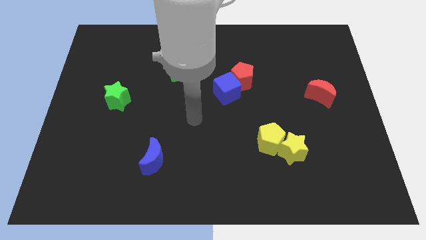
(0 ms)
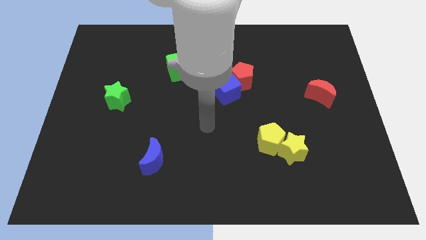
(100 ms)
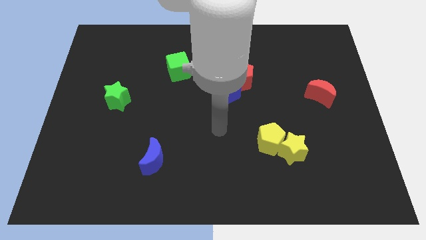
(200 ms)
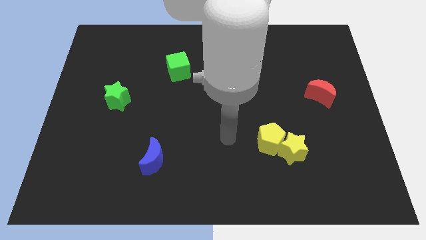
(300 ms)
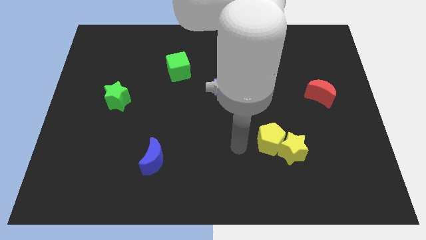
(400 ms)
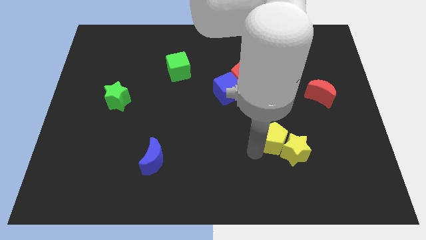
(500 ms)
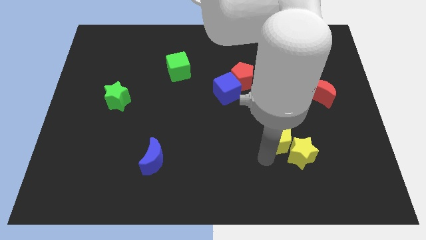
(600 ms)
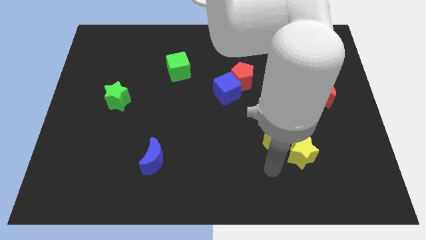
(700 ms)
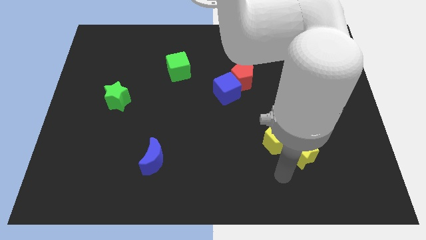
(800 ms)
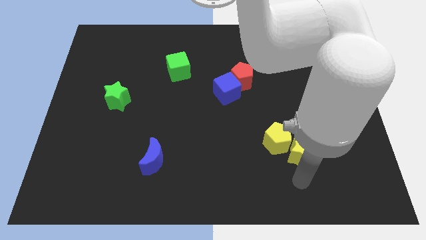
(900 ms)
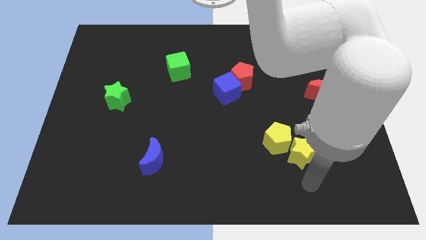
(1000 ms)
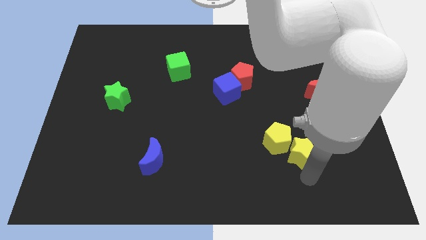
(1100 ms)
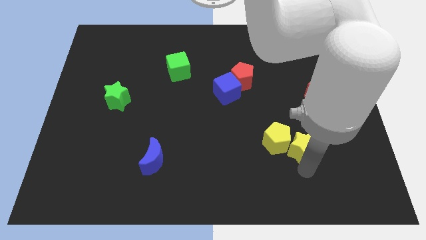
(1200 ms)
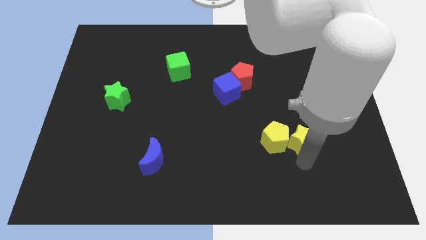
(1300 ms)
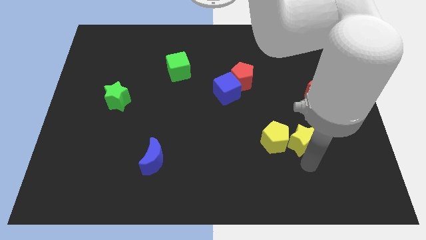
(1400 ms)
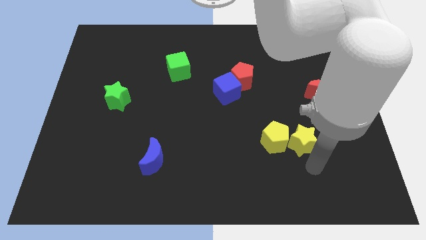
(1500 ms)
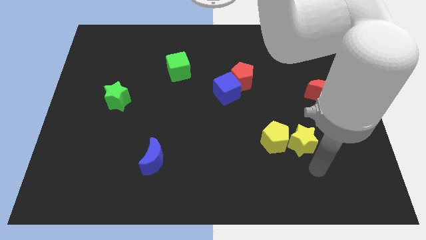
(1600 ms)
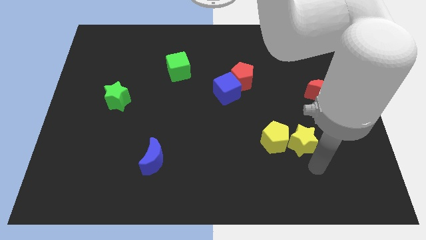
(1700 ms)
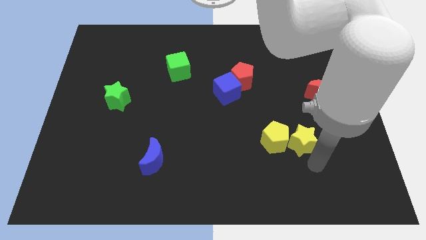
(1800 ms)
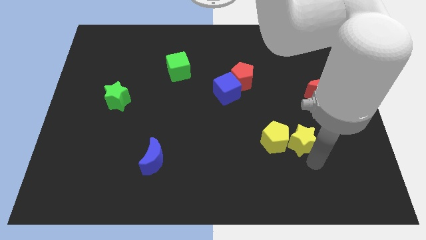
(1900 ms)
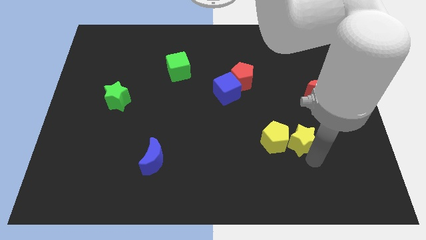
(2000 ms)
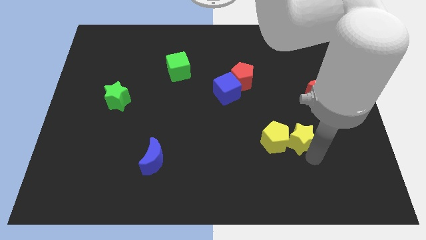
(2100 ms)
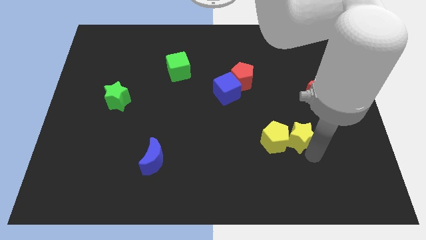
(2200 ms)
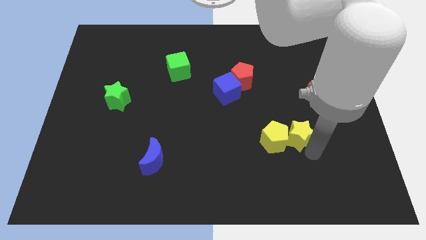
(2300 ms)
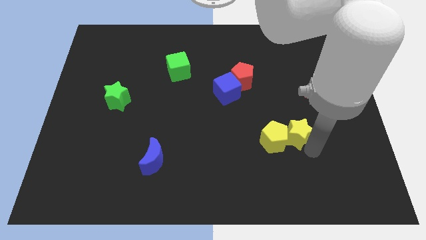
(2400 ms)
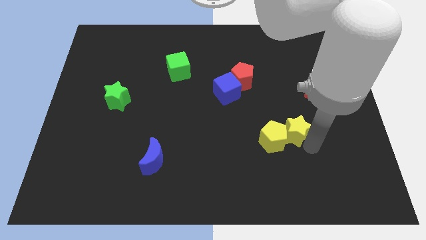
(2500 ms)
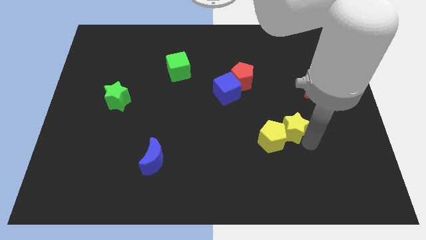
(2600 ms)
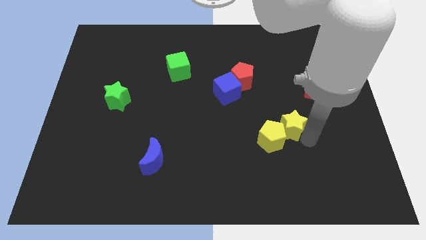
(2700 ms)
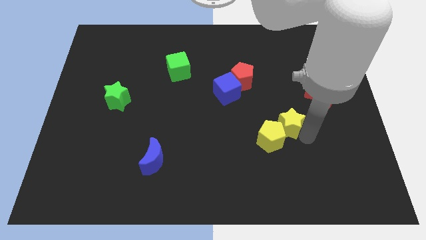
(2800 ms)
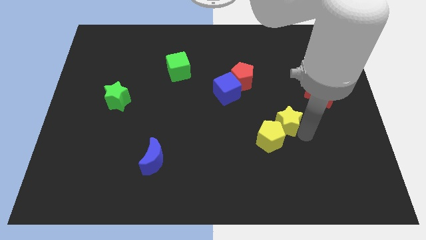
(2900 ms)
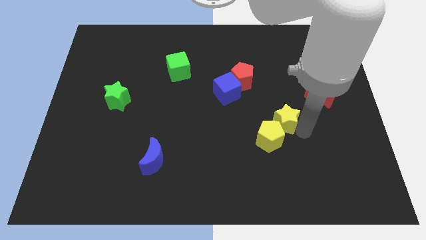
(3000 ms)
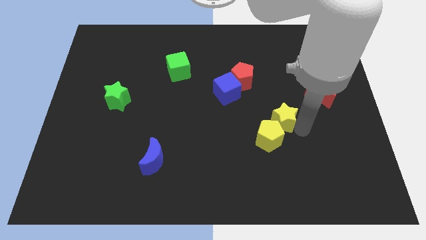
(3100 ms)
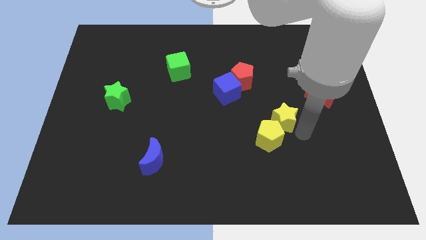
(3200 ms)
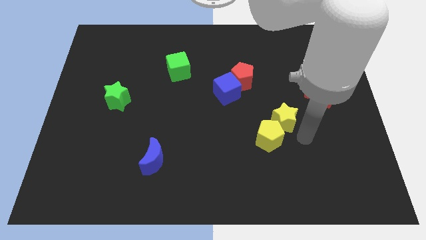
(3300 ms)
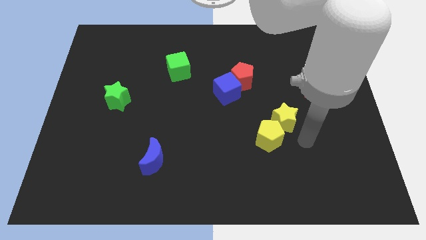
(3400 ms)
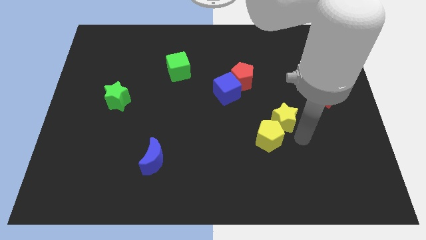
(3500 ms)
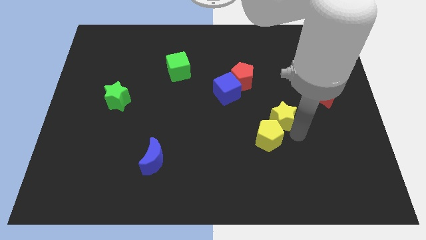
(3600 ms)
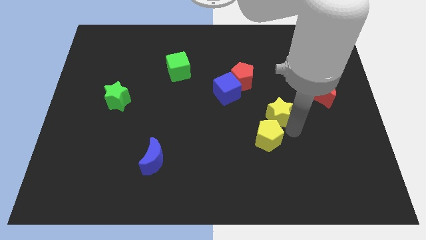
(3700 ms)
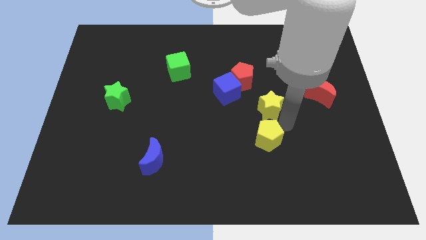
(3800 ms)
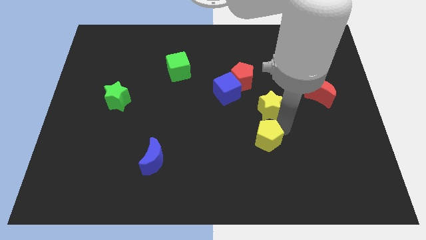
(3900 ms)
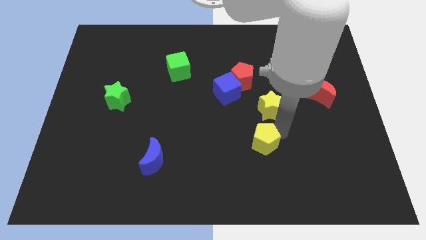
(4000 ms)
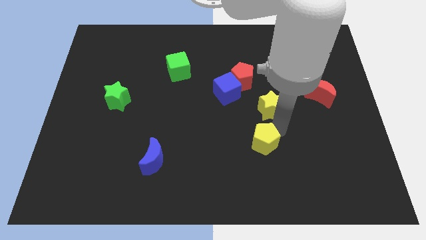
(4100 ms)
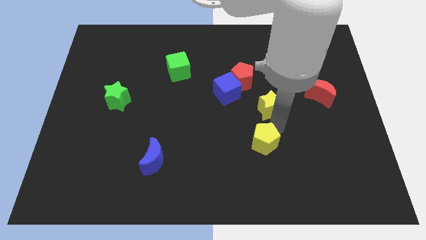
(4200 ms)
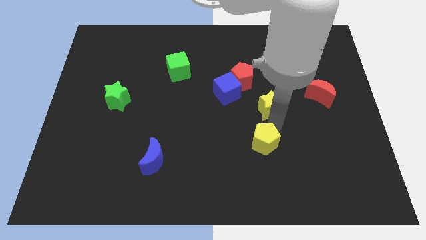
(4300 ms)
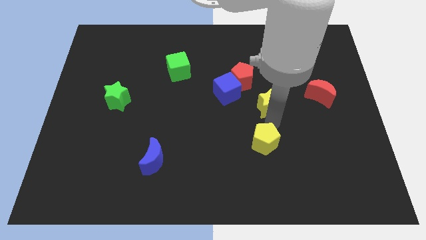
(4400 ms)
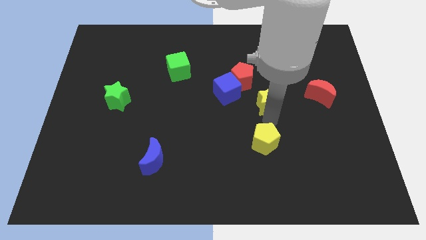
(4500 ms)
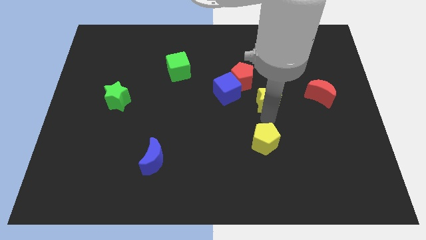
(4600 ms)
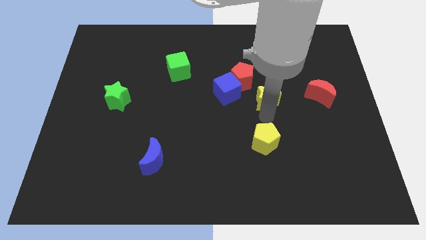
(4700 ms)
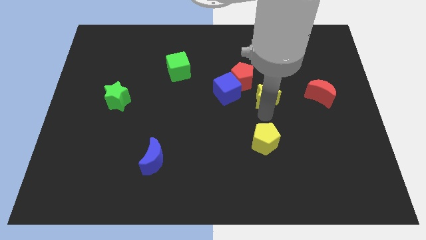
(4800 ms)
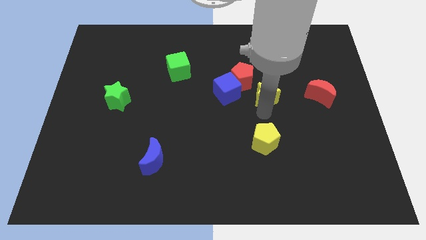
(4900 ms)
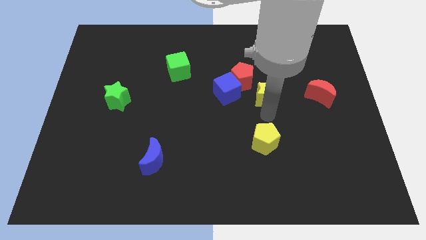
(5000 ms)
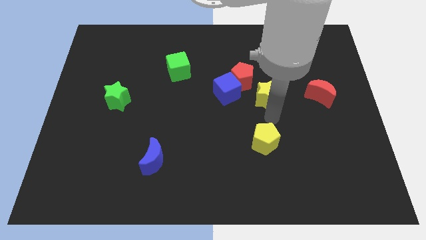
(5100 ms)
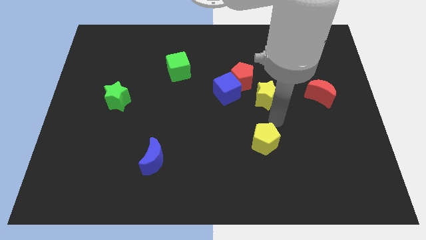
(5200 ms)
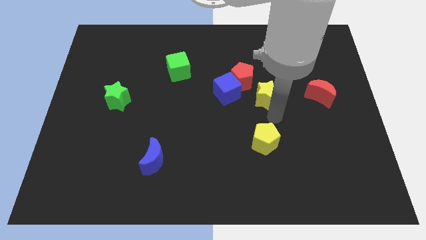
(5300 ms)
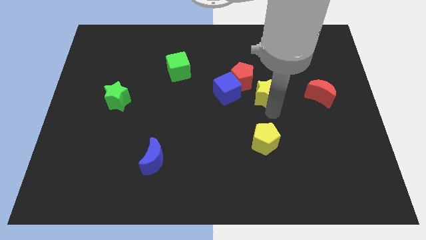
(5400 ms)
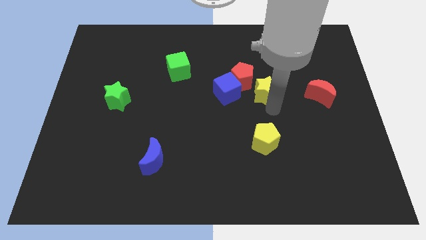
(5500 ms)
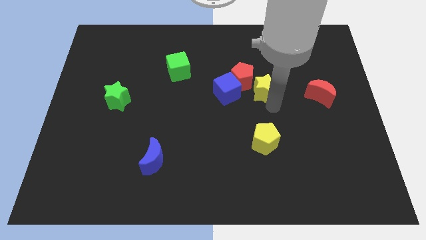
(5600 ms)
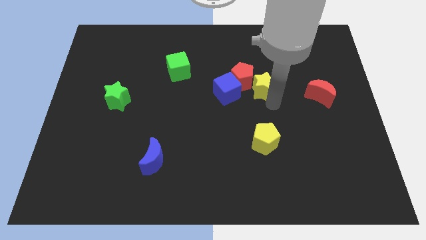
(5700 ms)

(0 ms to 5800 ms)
put the yellow star next to the red pentagon

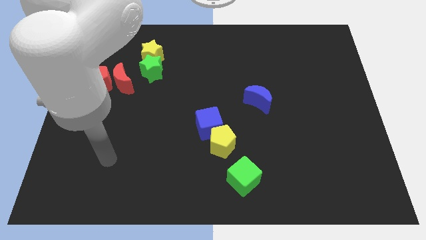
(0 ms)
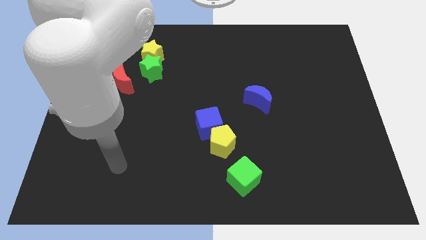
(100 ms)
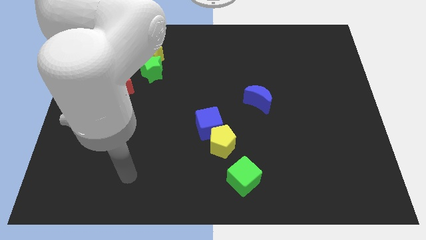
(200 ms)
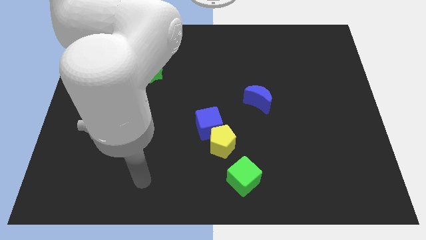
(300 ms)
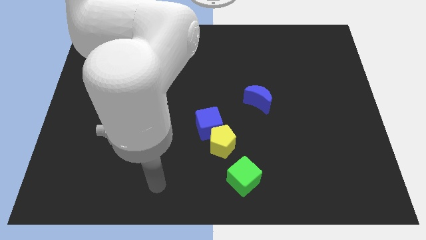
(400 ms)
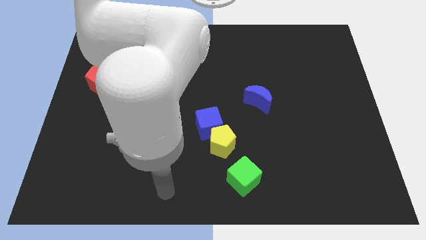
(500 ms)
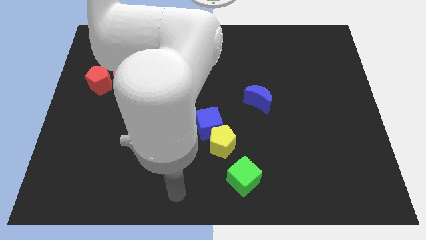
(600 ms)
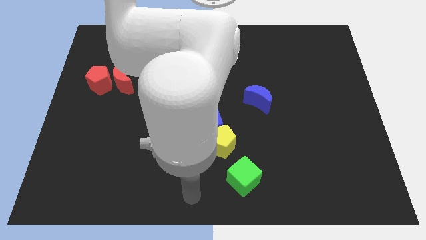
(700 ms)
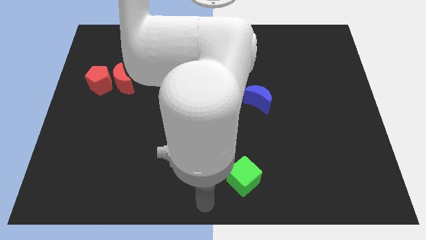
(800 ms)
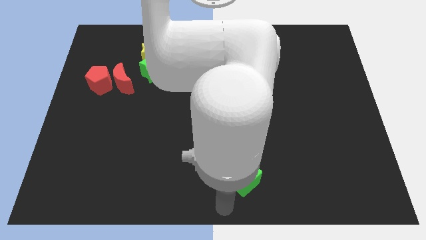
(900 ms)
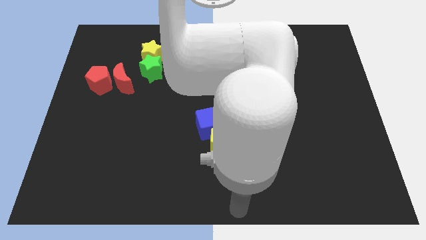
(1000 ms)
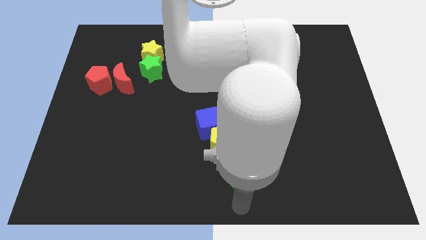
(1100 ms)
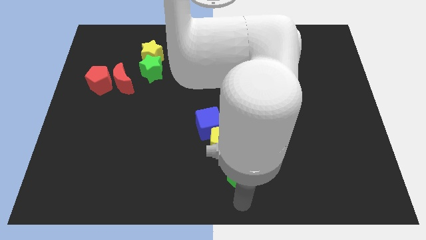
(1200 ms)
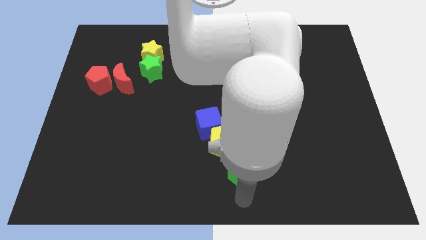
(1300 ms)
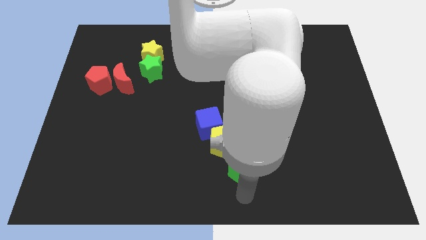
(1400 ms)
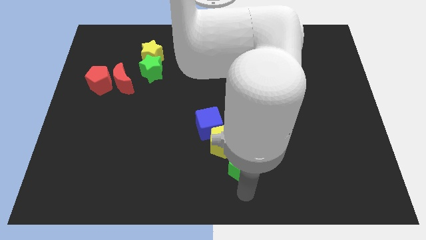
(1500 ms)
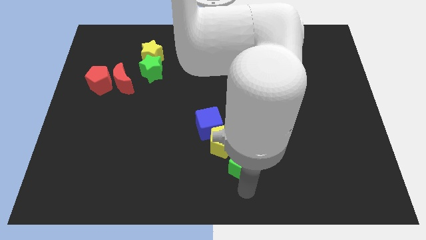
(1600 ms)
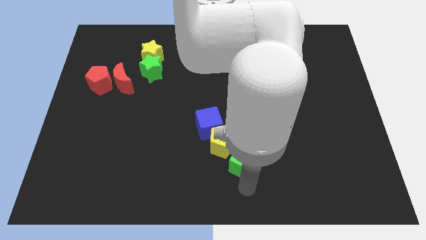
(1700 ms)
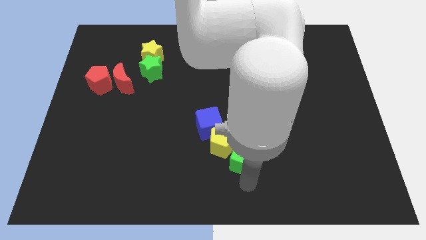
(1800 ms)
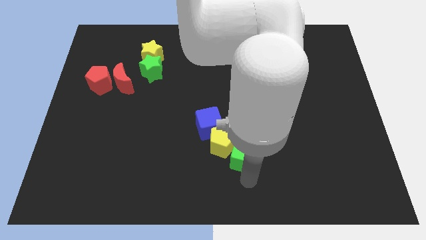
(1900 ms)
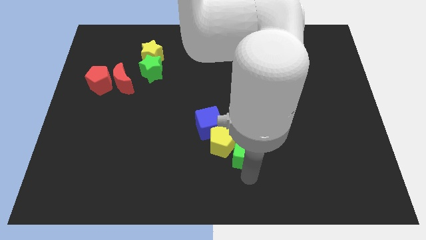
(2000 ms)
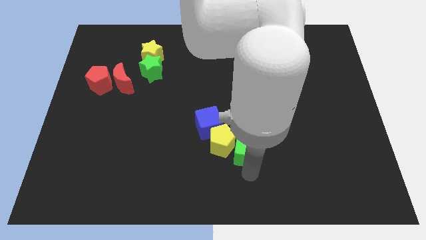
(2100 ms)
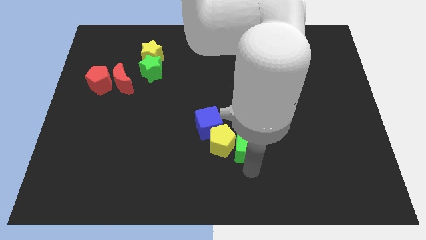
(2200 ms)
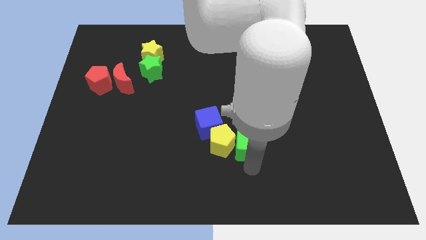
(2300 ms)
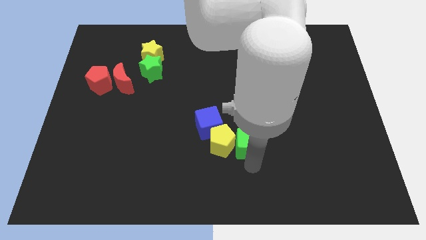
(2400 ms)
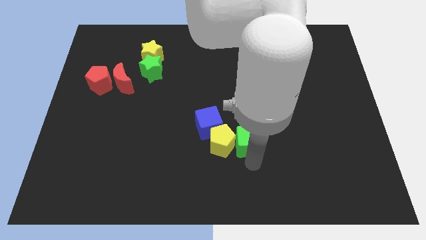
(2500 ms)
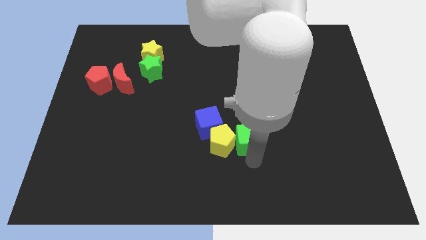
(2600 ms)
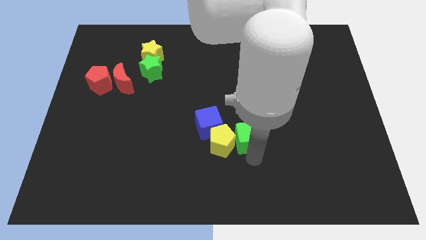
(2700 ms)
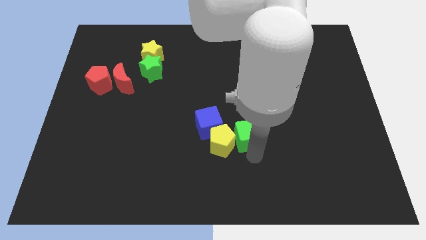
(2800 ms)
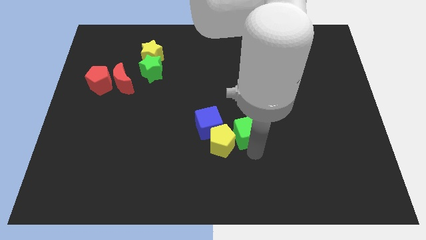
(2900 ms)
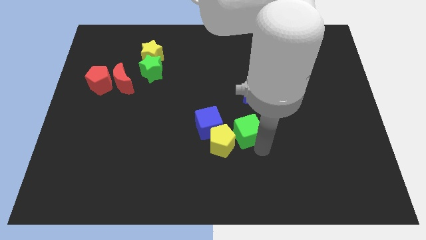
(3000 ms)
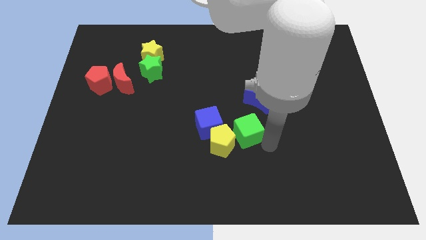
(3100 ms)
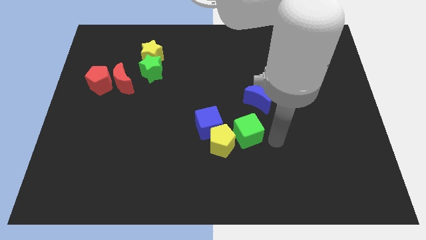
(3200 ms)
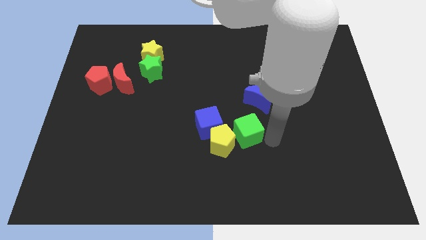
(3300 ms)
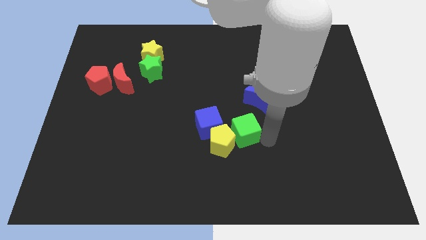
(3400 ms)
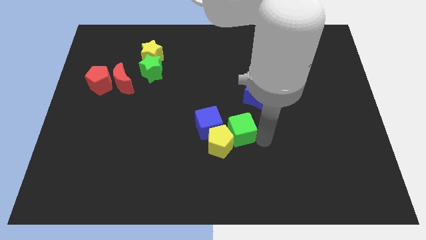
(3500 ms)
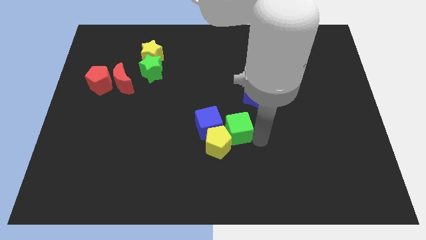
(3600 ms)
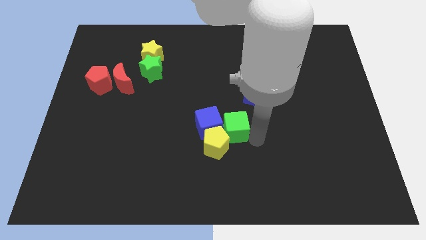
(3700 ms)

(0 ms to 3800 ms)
move the green cube close to the blue cube
